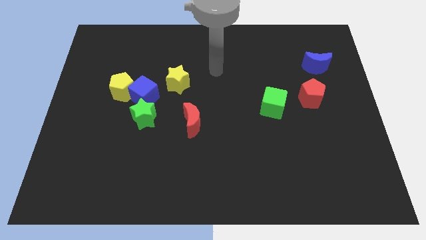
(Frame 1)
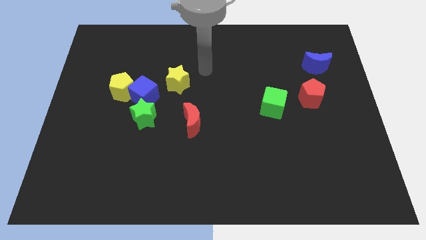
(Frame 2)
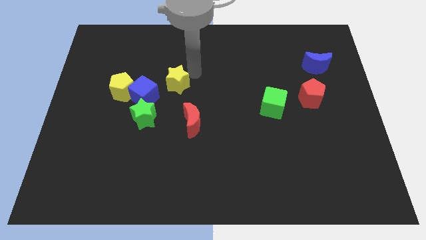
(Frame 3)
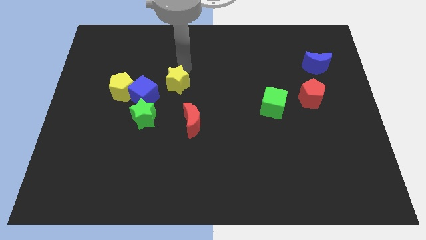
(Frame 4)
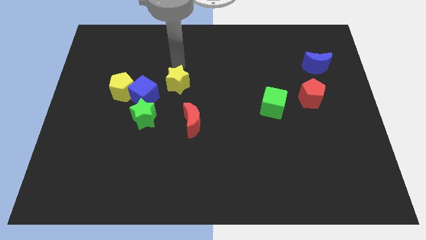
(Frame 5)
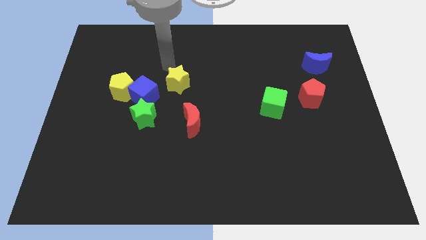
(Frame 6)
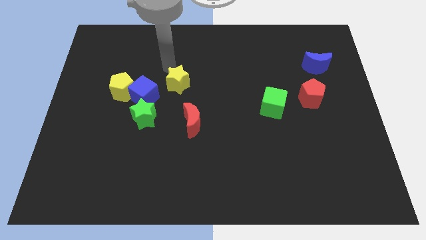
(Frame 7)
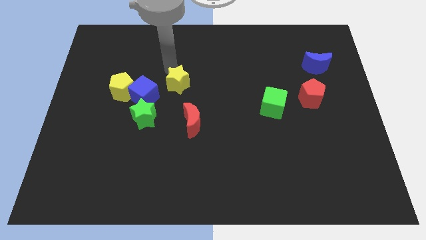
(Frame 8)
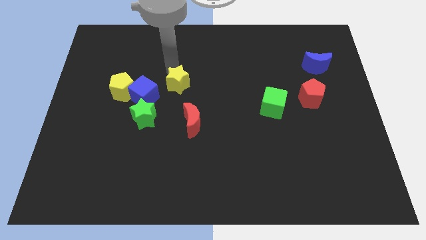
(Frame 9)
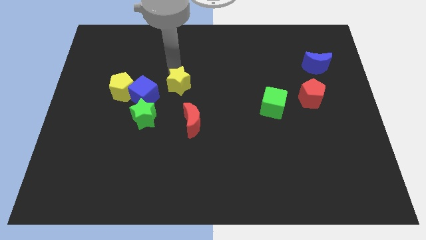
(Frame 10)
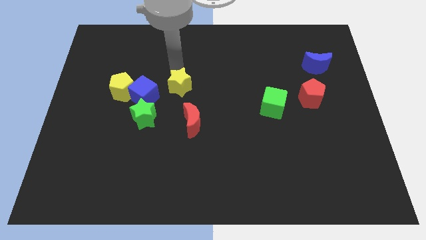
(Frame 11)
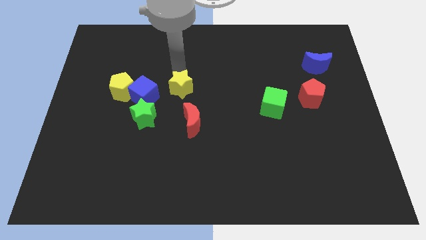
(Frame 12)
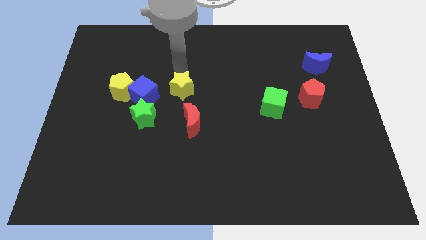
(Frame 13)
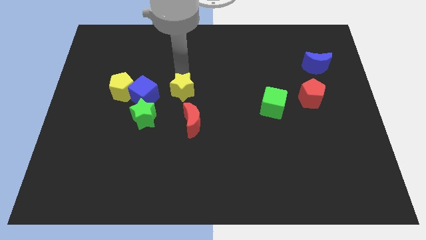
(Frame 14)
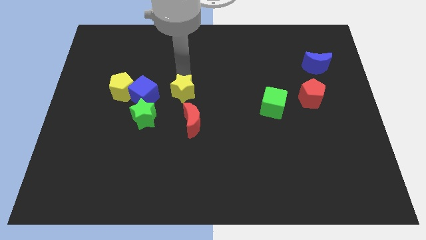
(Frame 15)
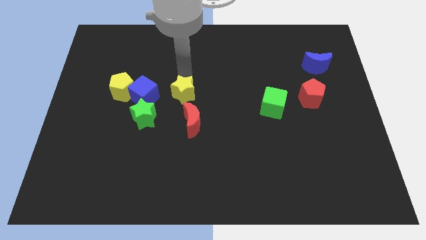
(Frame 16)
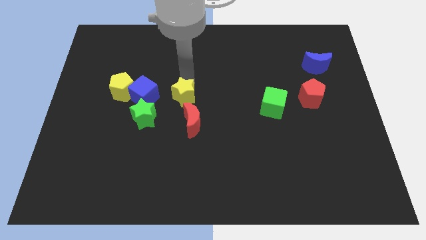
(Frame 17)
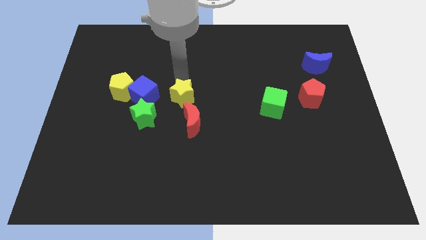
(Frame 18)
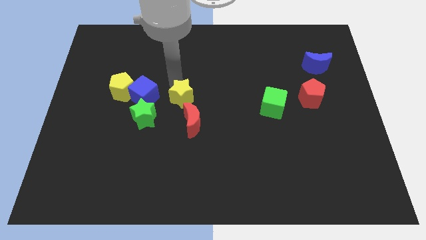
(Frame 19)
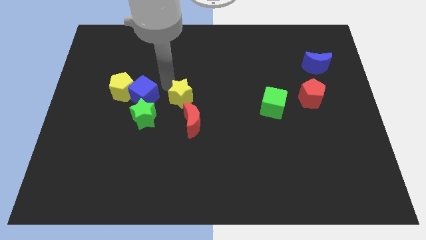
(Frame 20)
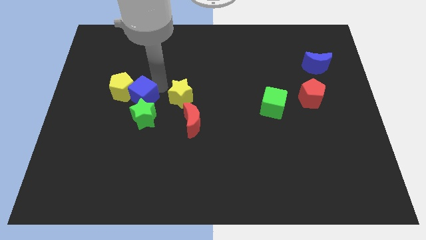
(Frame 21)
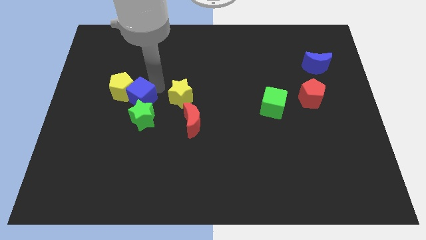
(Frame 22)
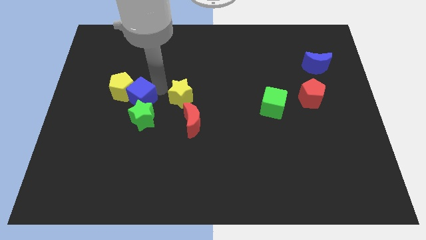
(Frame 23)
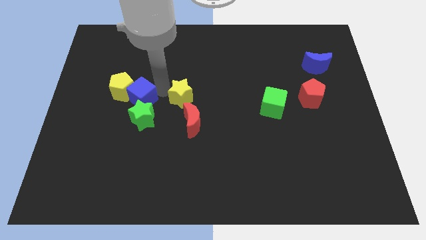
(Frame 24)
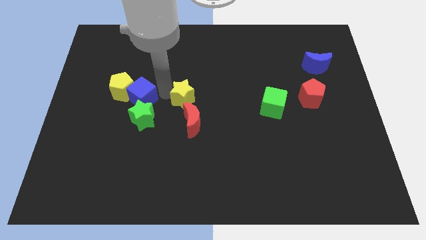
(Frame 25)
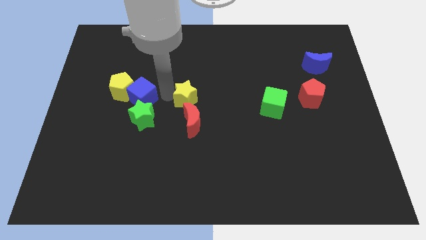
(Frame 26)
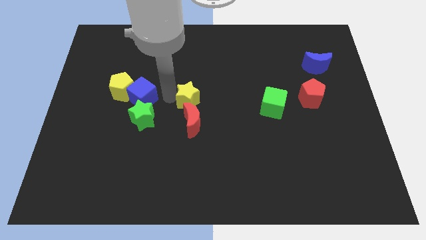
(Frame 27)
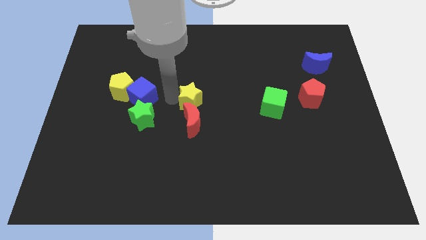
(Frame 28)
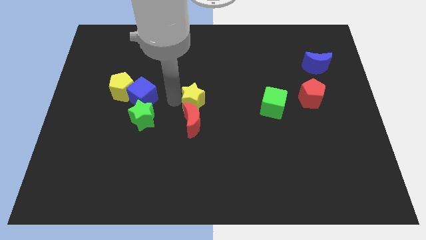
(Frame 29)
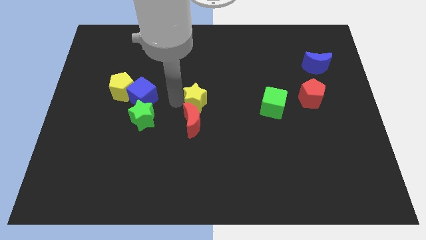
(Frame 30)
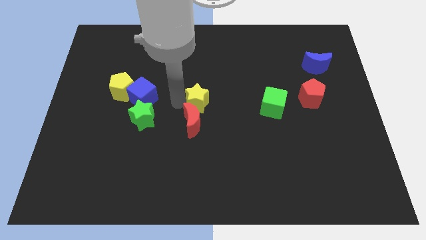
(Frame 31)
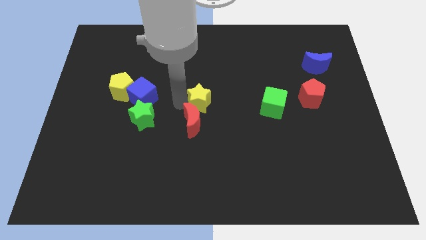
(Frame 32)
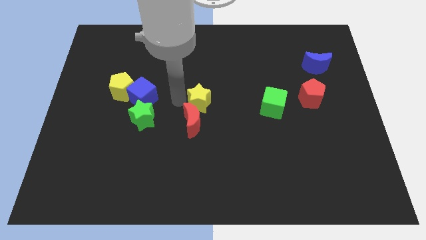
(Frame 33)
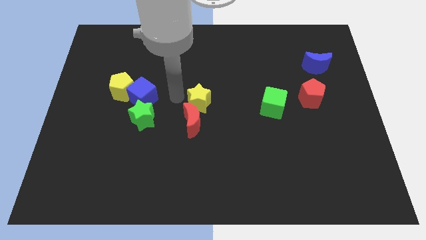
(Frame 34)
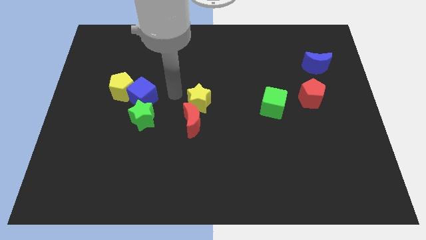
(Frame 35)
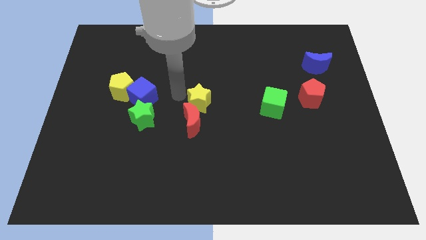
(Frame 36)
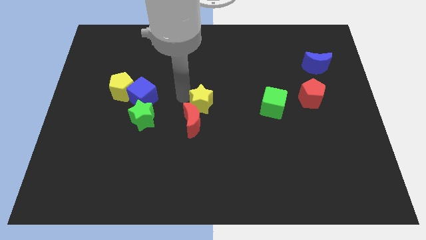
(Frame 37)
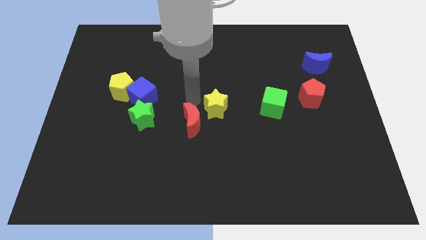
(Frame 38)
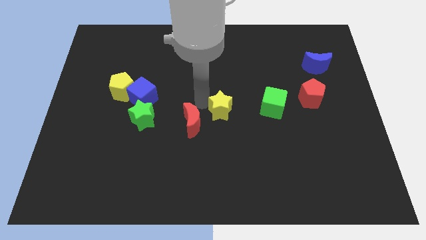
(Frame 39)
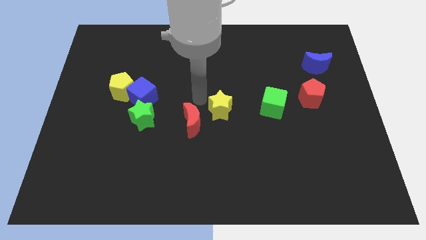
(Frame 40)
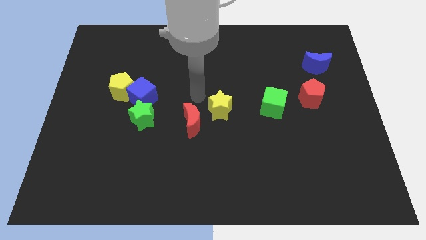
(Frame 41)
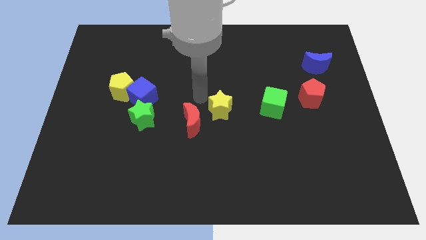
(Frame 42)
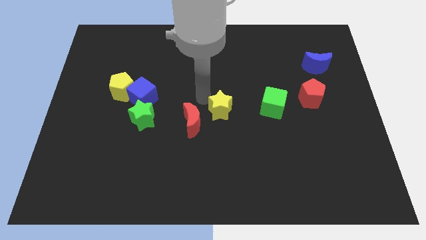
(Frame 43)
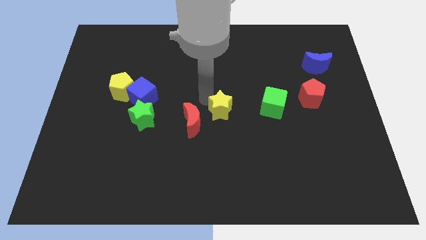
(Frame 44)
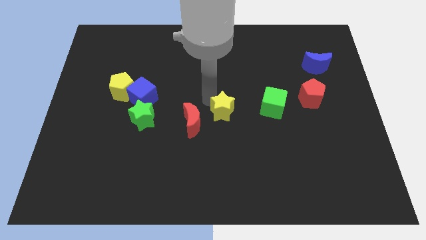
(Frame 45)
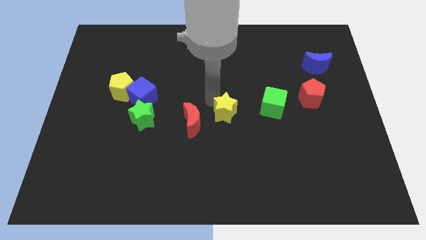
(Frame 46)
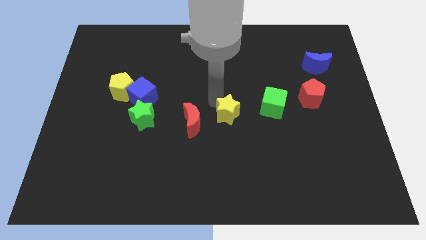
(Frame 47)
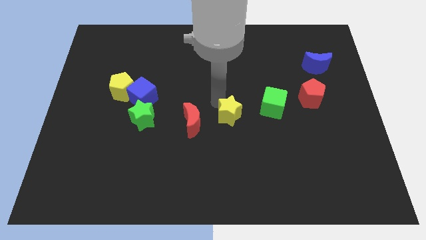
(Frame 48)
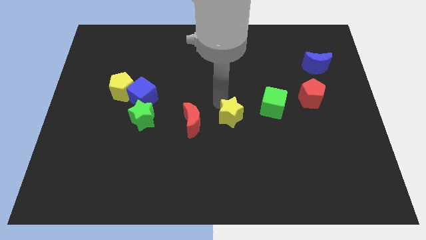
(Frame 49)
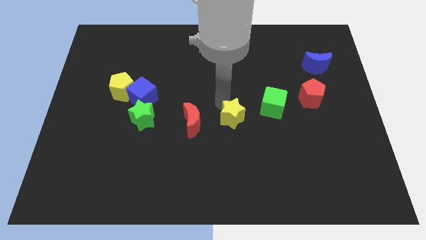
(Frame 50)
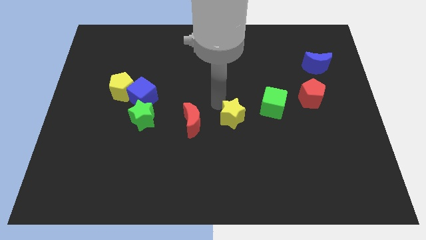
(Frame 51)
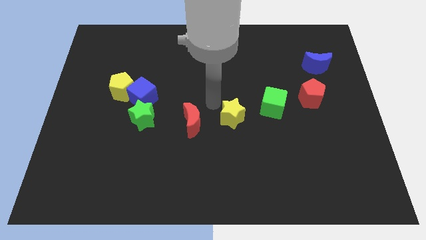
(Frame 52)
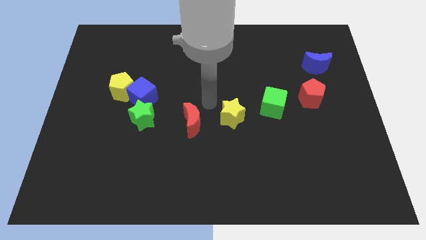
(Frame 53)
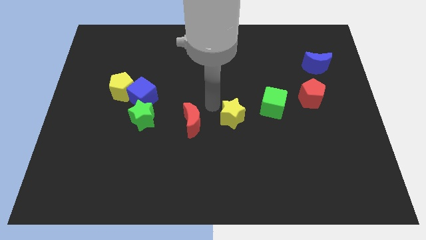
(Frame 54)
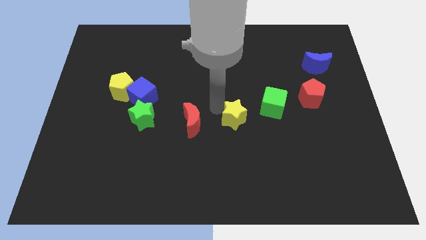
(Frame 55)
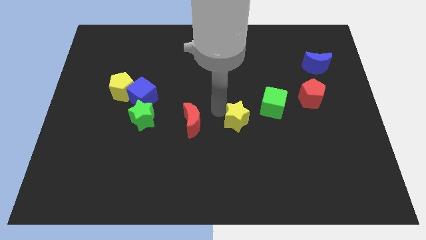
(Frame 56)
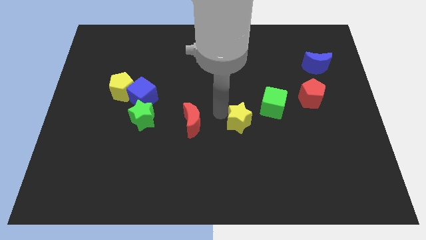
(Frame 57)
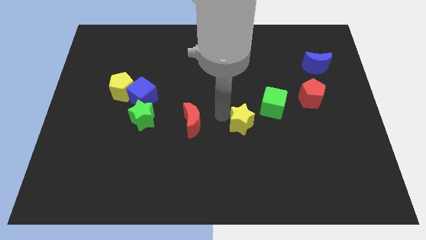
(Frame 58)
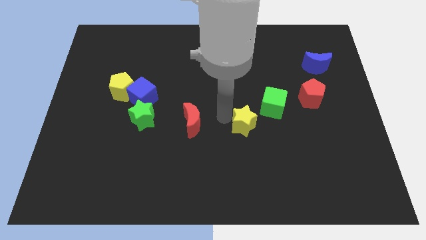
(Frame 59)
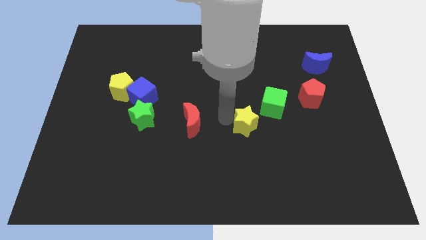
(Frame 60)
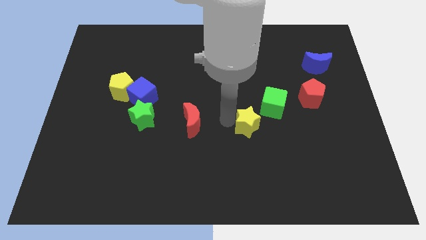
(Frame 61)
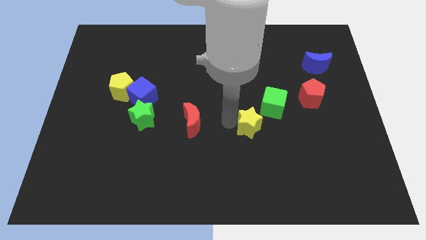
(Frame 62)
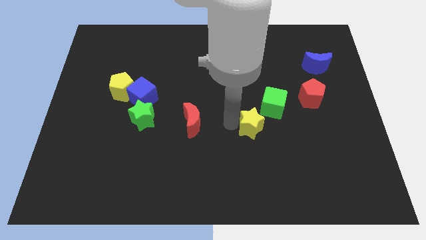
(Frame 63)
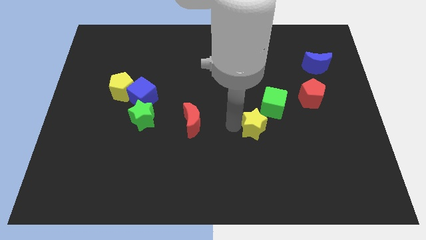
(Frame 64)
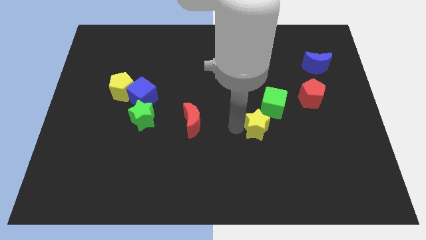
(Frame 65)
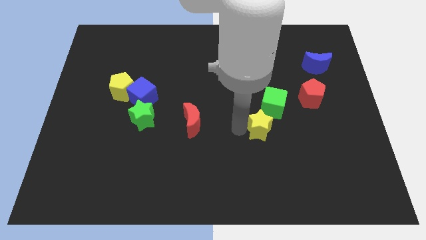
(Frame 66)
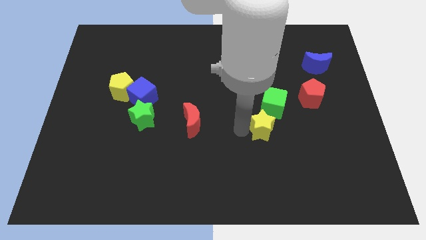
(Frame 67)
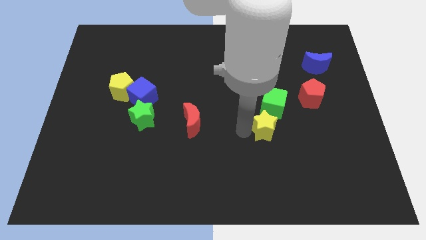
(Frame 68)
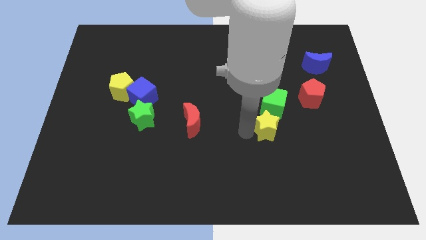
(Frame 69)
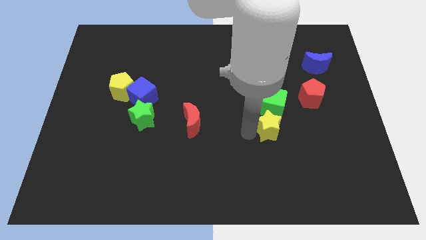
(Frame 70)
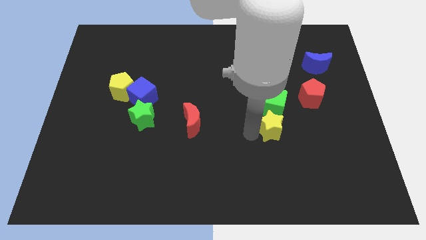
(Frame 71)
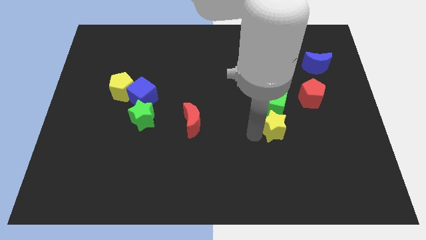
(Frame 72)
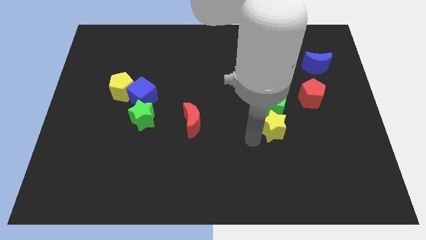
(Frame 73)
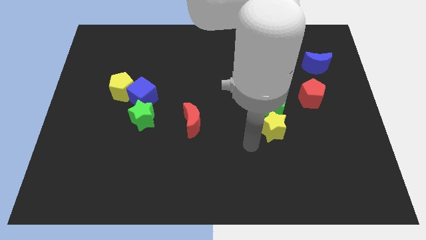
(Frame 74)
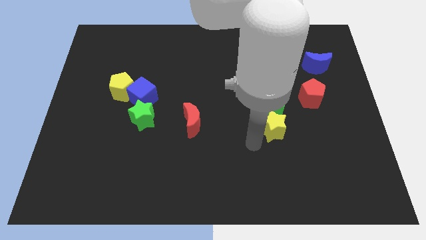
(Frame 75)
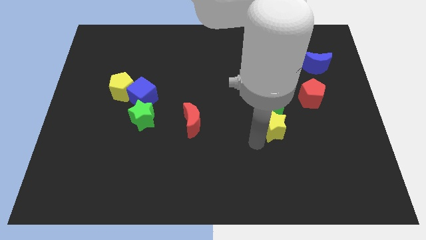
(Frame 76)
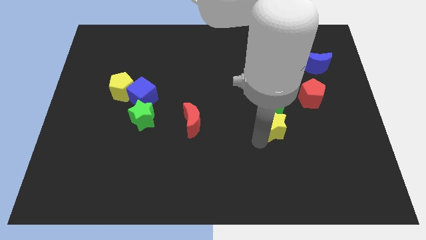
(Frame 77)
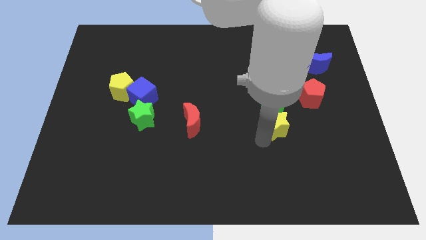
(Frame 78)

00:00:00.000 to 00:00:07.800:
push the yellow star to the bottom left side of the red pentagon
